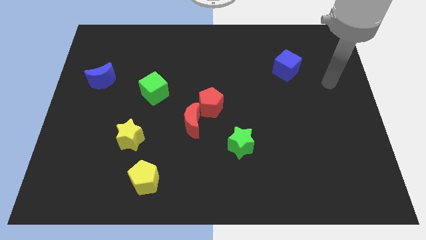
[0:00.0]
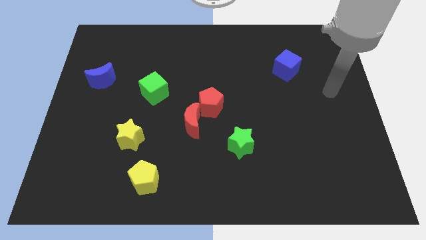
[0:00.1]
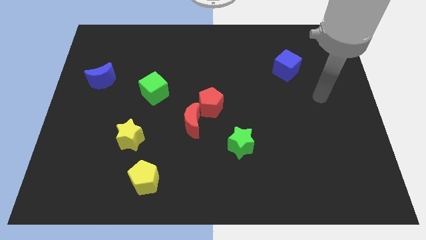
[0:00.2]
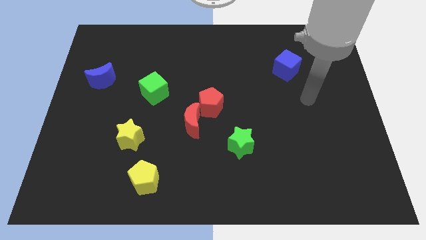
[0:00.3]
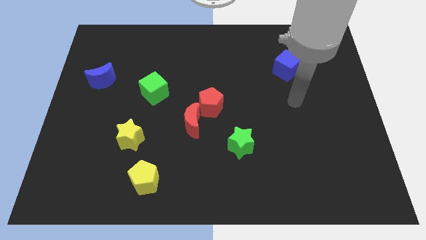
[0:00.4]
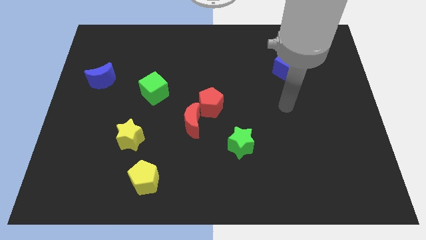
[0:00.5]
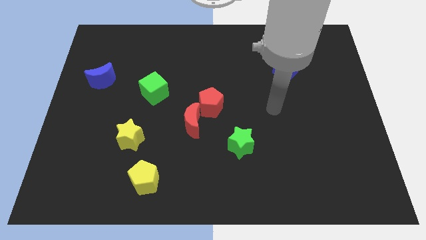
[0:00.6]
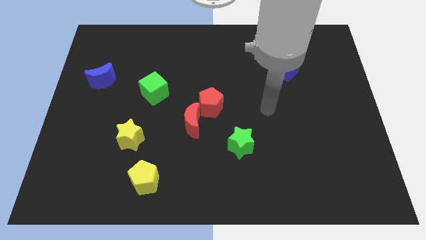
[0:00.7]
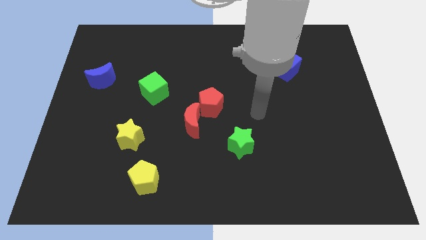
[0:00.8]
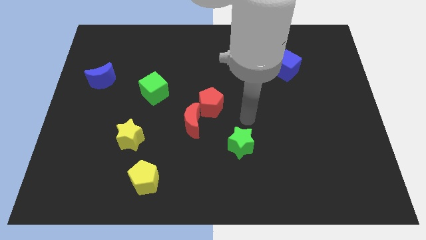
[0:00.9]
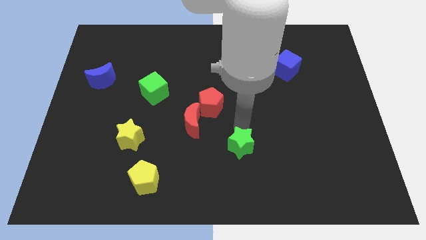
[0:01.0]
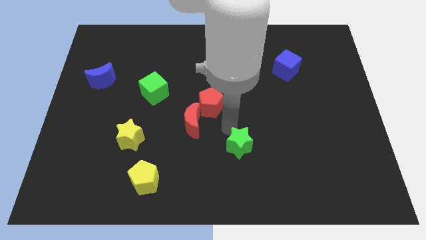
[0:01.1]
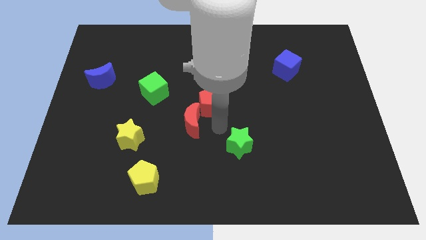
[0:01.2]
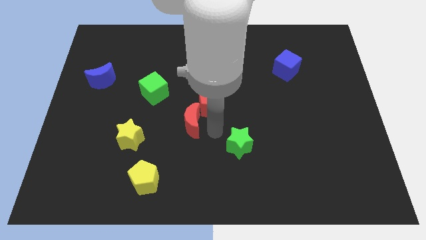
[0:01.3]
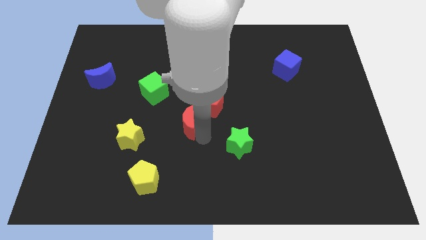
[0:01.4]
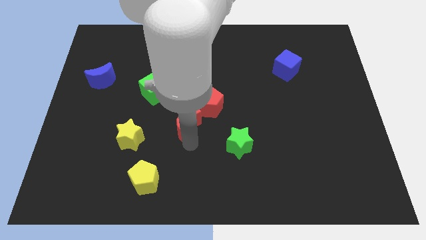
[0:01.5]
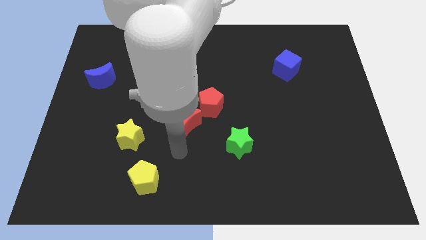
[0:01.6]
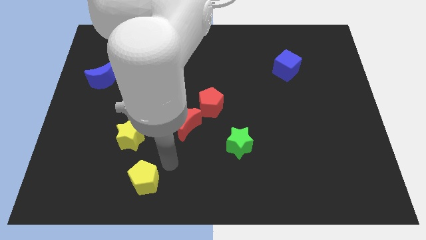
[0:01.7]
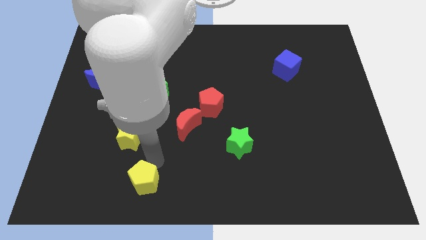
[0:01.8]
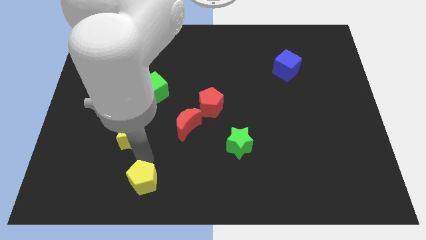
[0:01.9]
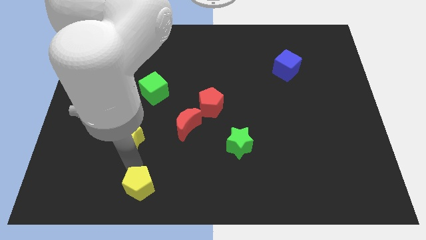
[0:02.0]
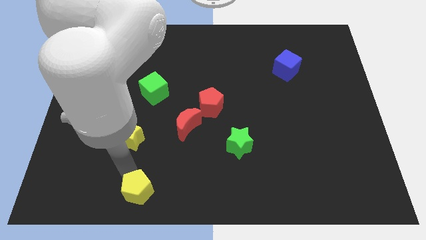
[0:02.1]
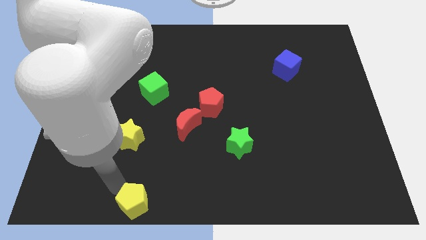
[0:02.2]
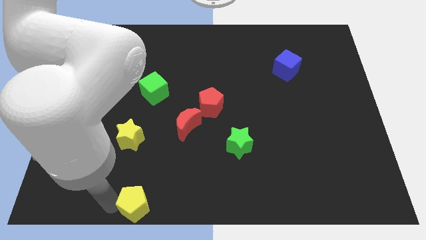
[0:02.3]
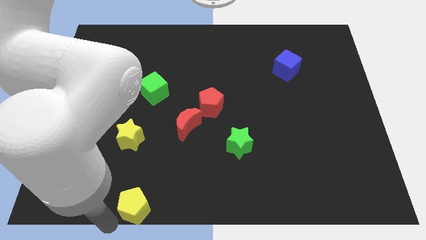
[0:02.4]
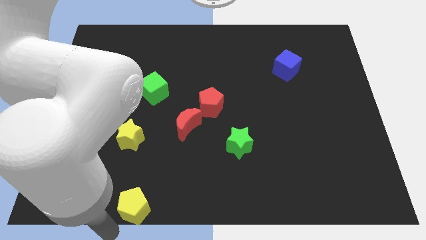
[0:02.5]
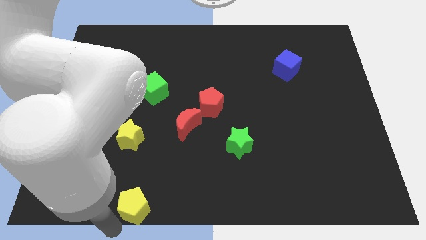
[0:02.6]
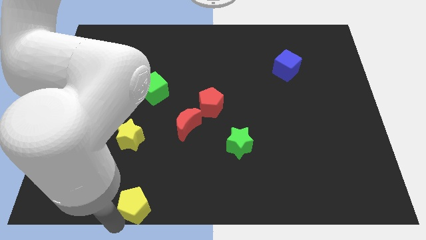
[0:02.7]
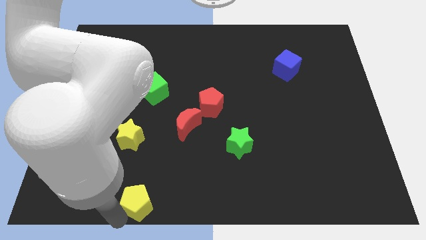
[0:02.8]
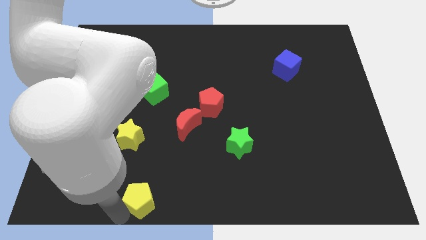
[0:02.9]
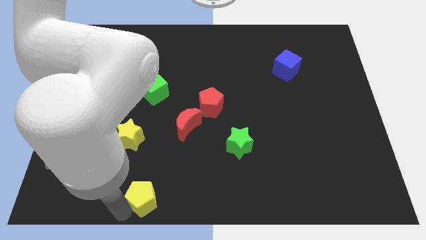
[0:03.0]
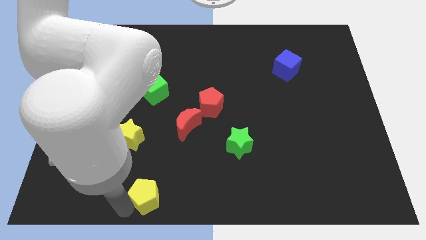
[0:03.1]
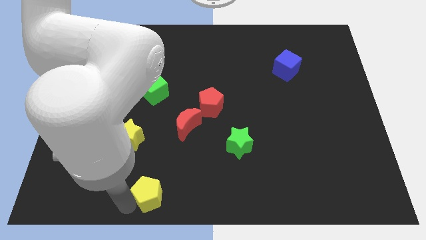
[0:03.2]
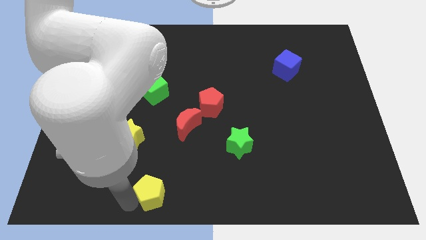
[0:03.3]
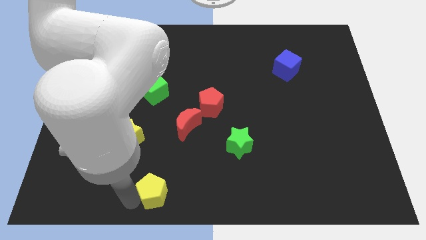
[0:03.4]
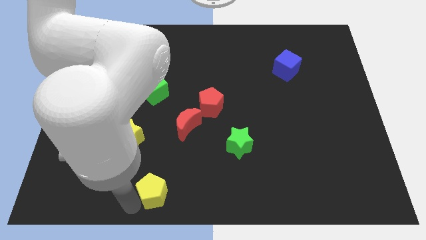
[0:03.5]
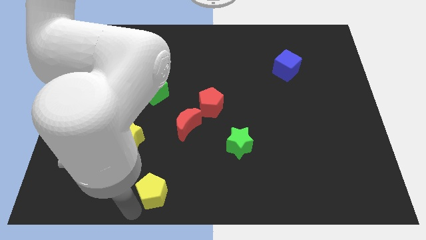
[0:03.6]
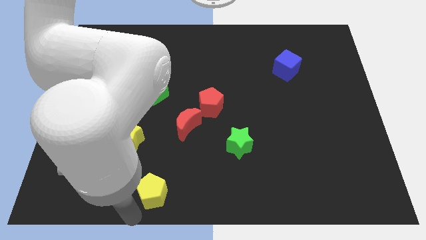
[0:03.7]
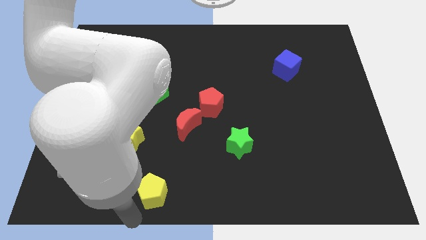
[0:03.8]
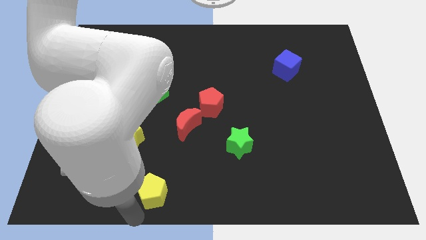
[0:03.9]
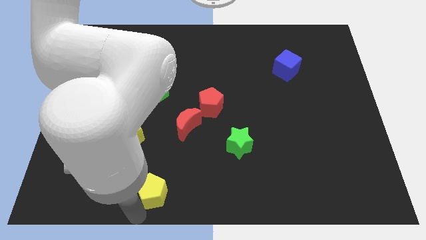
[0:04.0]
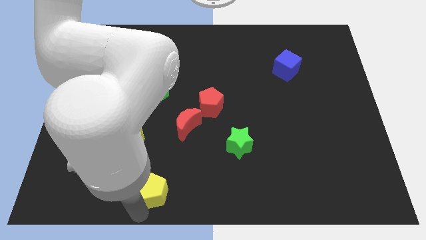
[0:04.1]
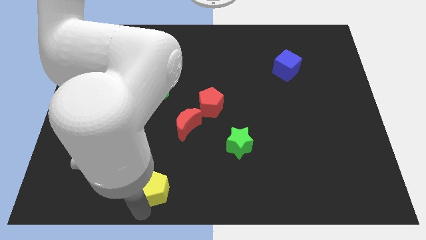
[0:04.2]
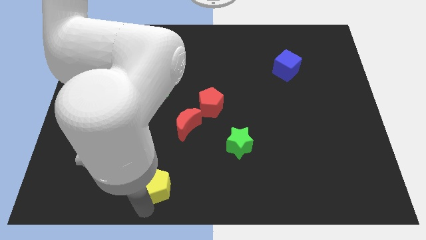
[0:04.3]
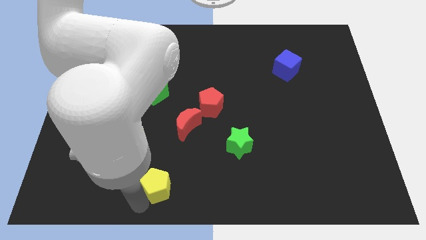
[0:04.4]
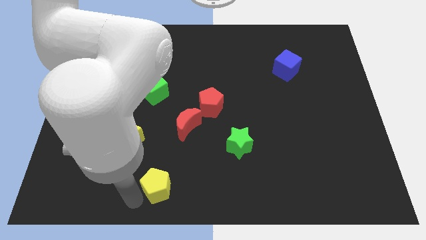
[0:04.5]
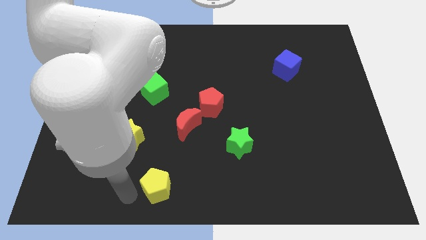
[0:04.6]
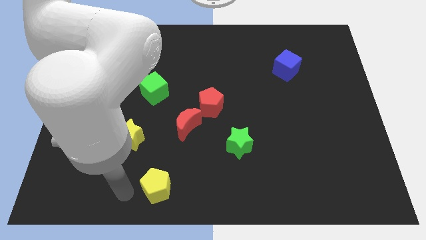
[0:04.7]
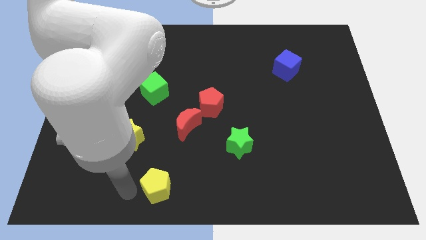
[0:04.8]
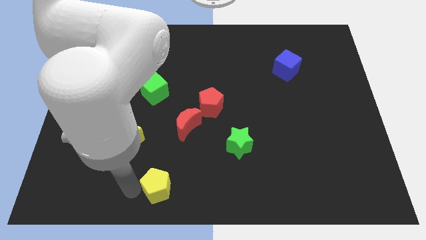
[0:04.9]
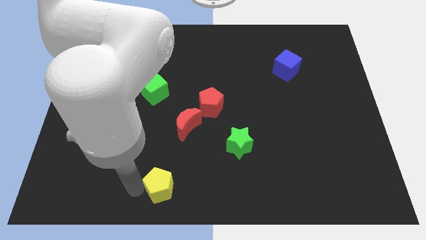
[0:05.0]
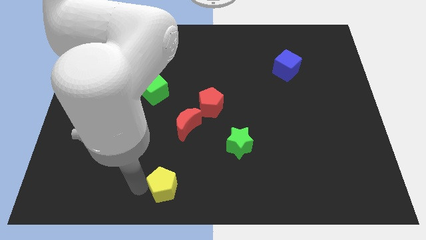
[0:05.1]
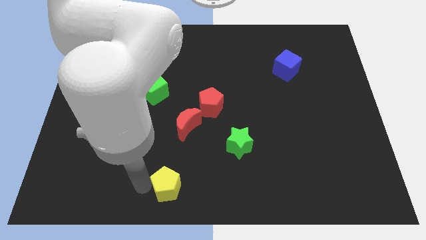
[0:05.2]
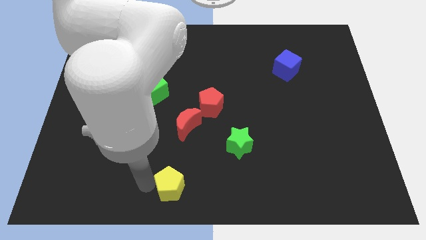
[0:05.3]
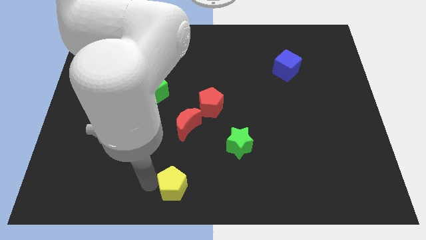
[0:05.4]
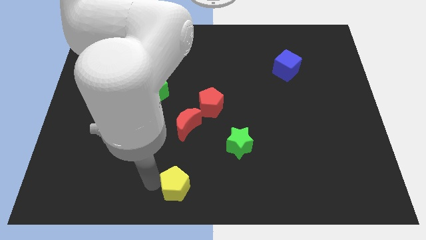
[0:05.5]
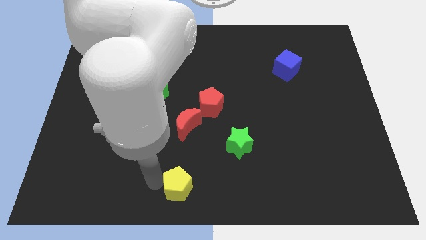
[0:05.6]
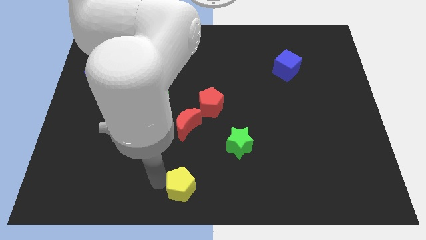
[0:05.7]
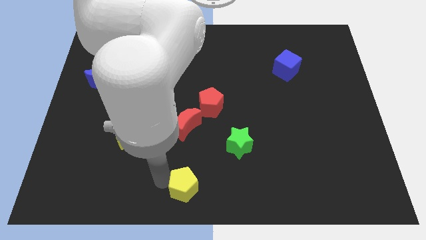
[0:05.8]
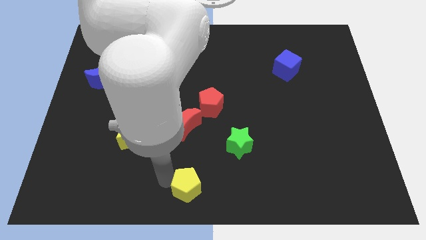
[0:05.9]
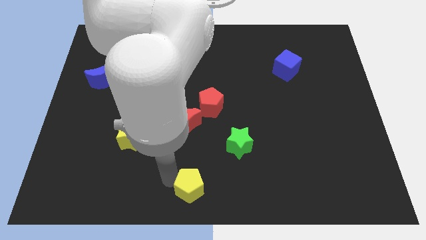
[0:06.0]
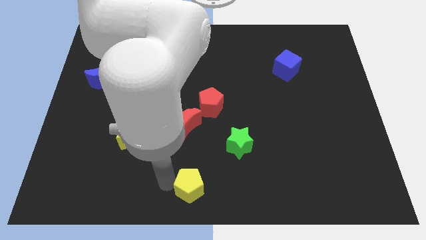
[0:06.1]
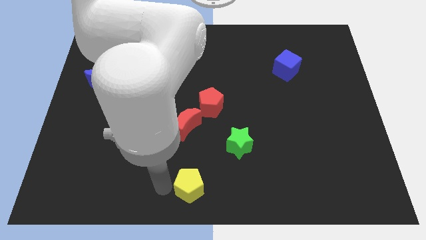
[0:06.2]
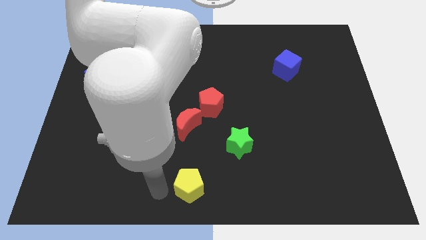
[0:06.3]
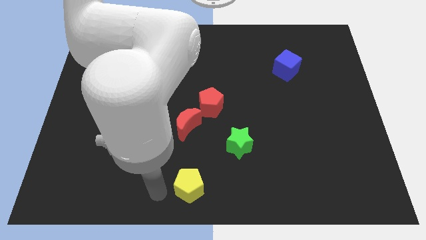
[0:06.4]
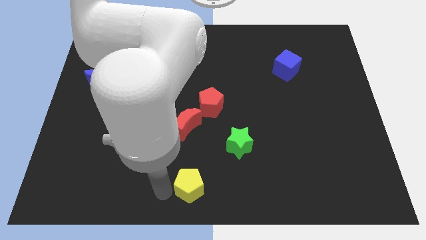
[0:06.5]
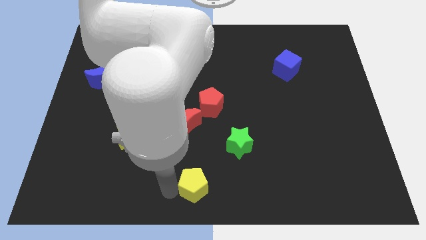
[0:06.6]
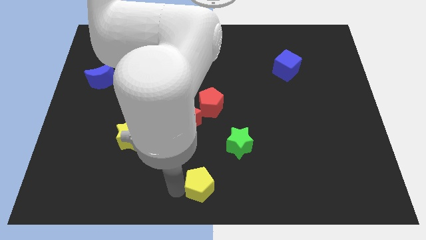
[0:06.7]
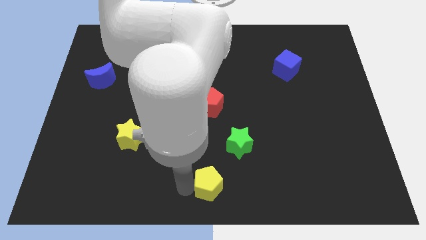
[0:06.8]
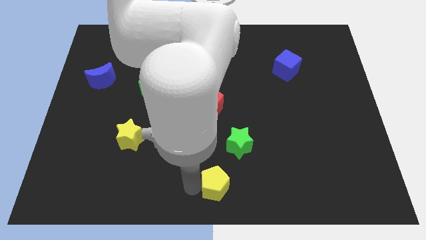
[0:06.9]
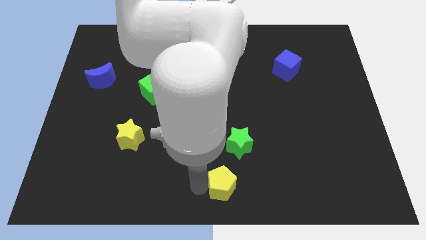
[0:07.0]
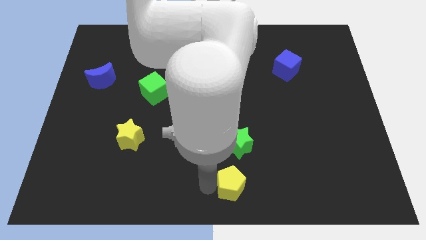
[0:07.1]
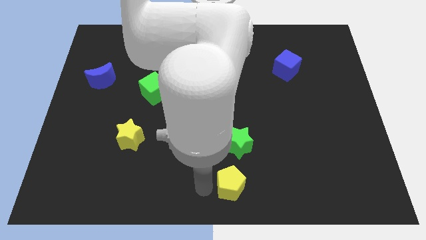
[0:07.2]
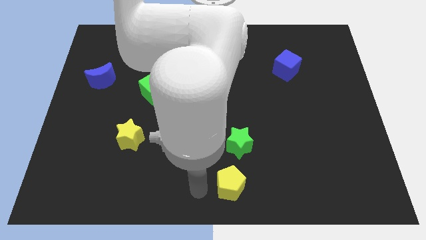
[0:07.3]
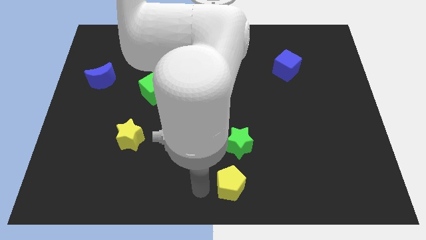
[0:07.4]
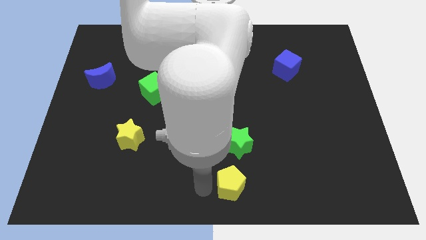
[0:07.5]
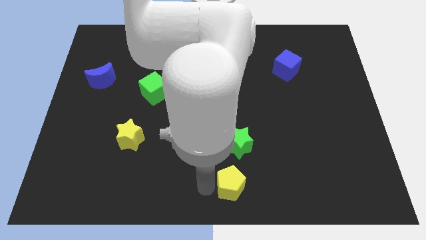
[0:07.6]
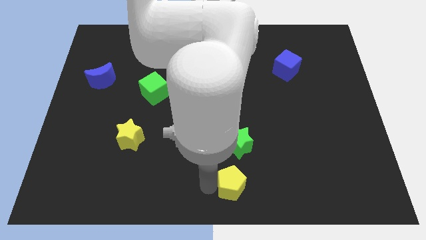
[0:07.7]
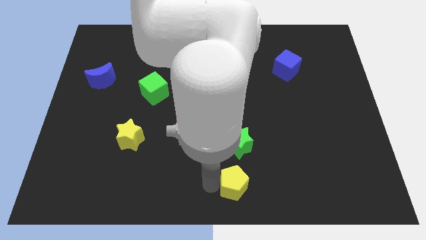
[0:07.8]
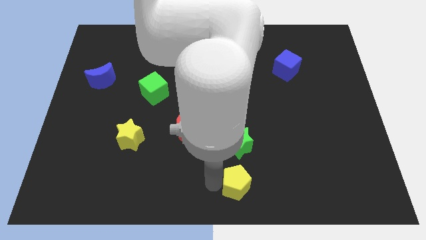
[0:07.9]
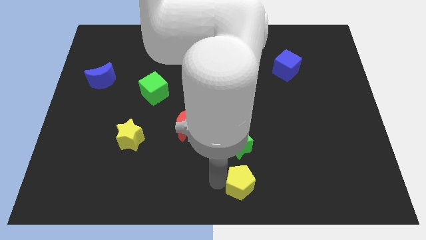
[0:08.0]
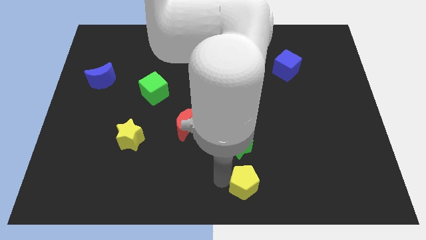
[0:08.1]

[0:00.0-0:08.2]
slide the yellow pentagon right
